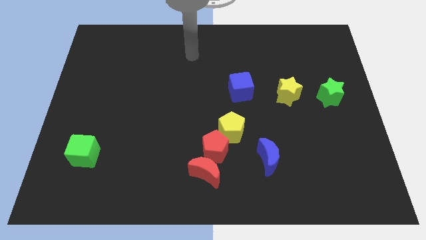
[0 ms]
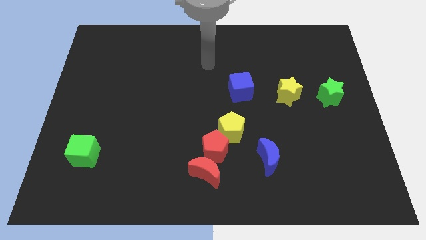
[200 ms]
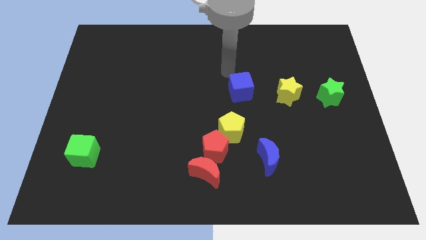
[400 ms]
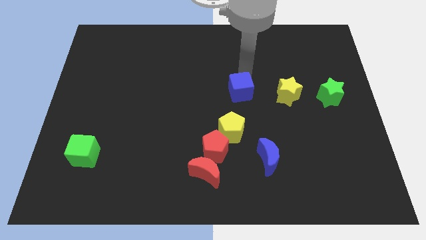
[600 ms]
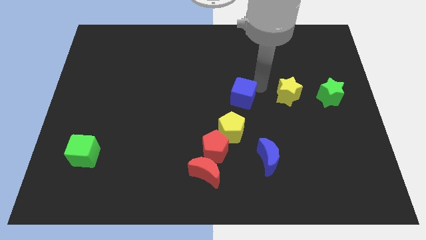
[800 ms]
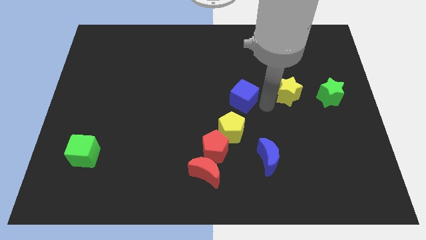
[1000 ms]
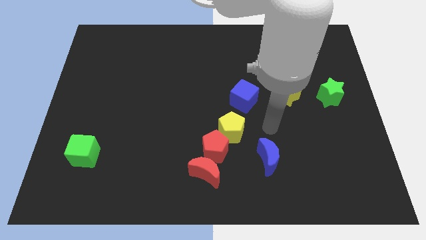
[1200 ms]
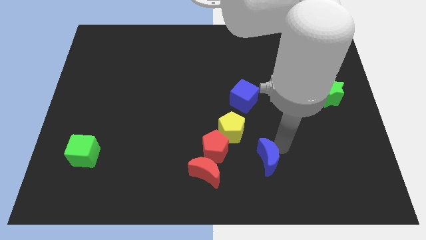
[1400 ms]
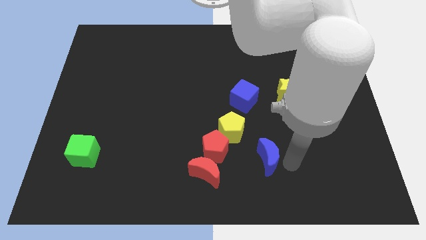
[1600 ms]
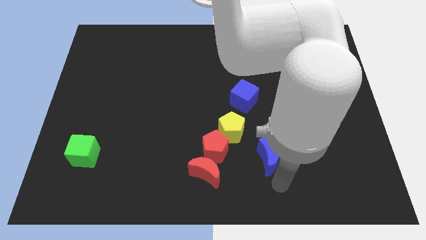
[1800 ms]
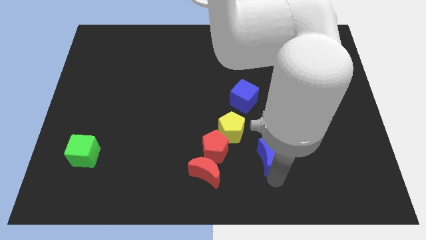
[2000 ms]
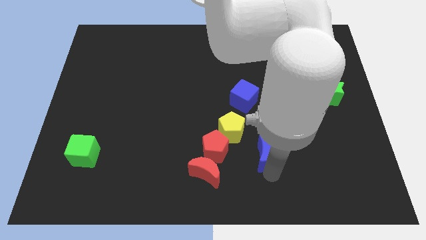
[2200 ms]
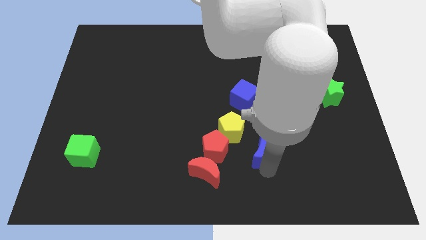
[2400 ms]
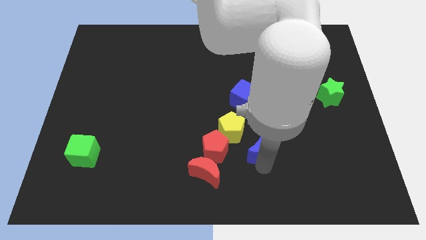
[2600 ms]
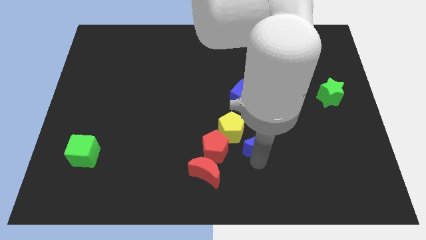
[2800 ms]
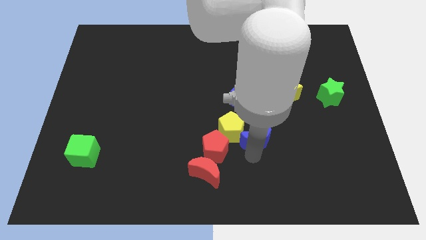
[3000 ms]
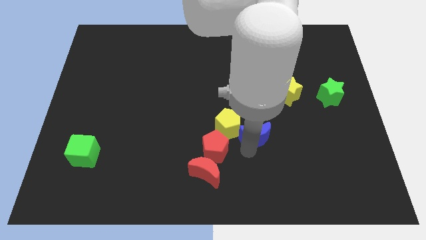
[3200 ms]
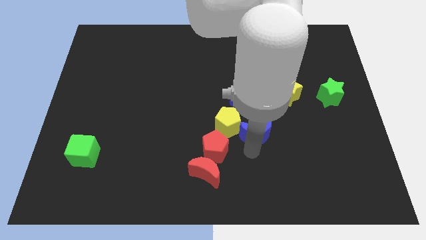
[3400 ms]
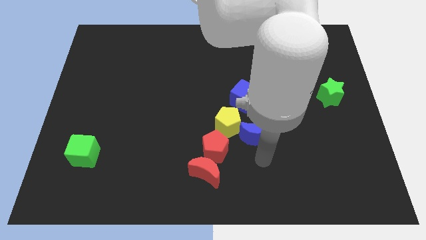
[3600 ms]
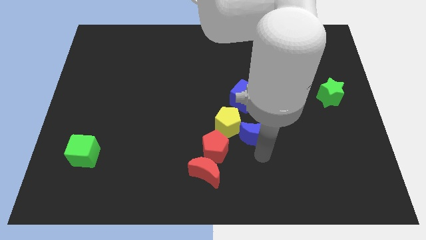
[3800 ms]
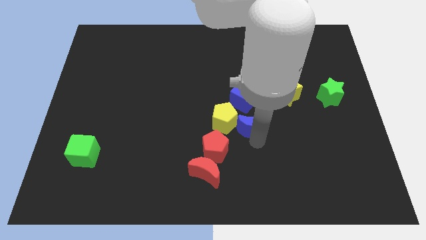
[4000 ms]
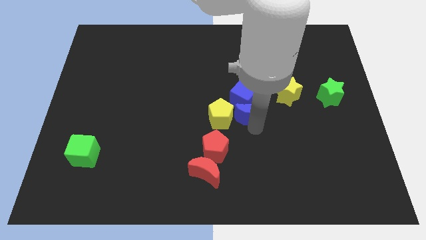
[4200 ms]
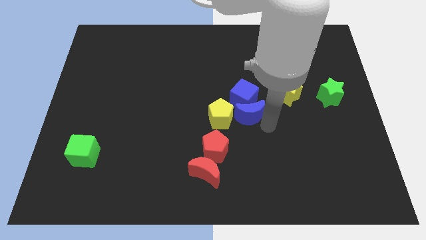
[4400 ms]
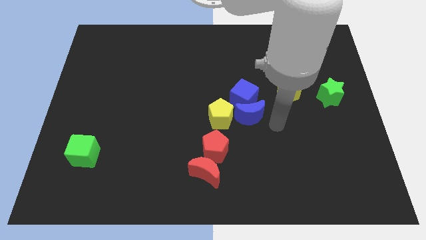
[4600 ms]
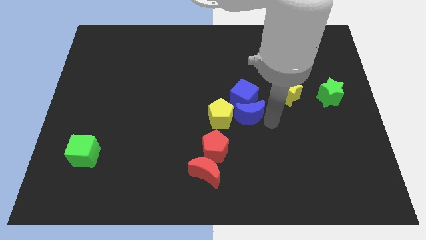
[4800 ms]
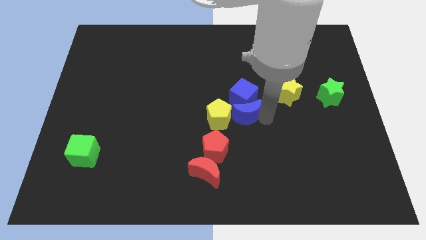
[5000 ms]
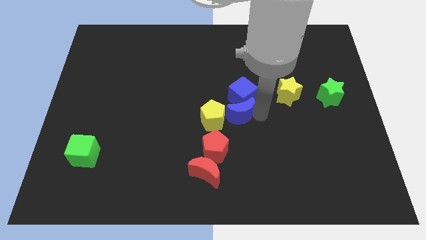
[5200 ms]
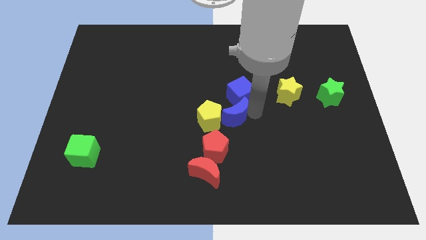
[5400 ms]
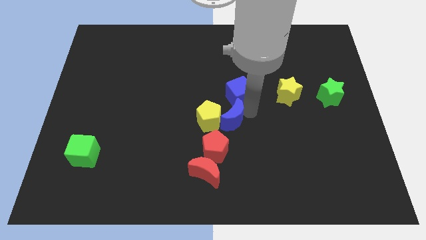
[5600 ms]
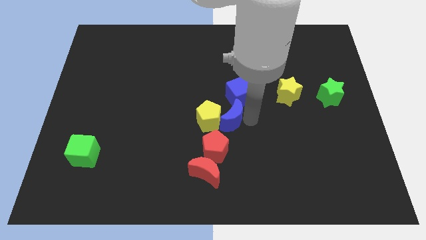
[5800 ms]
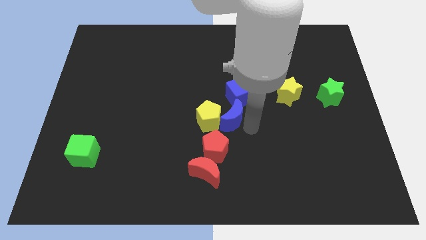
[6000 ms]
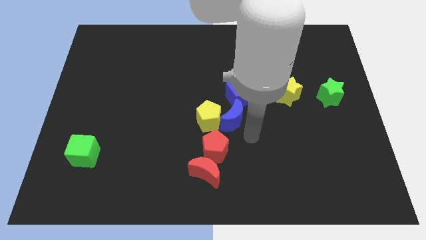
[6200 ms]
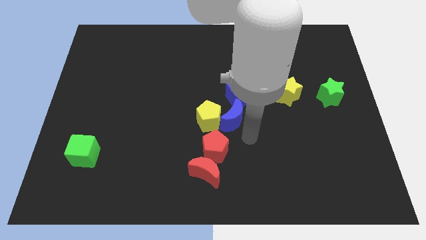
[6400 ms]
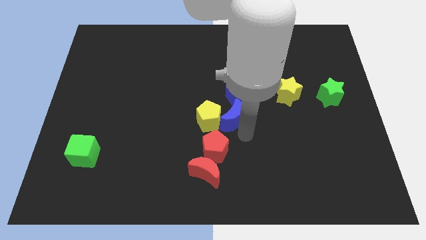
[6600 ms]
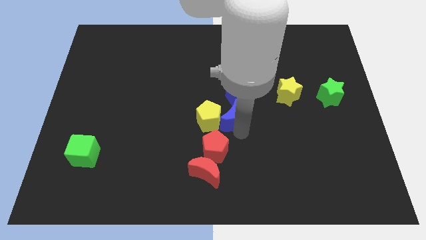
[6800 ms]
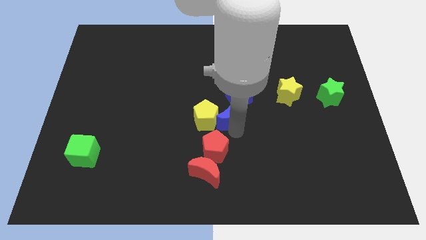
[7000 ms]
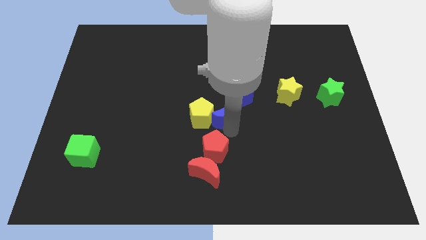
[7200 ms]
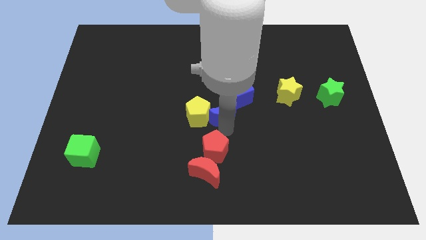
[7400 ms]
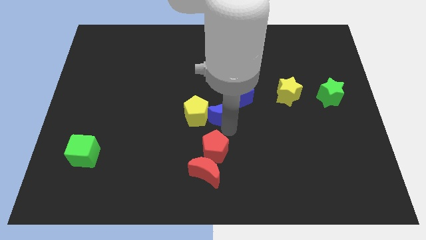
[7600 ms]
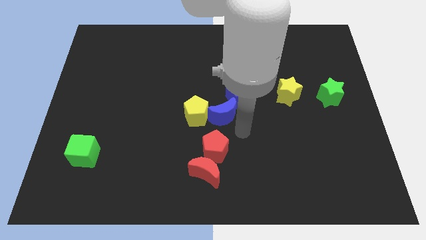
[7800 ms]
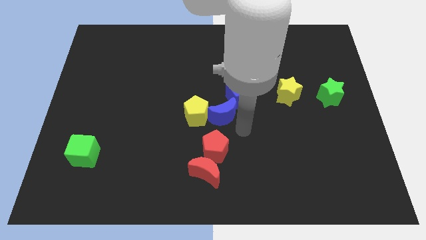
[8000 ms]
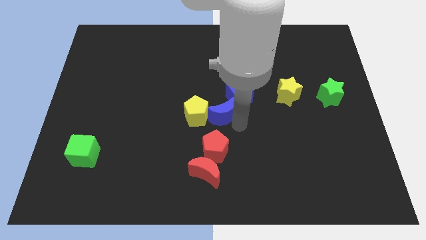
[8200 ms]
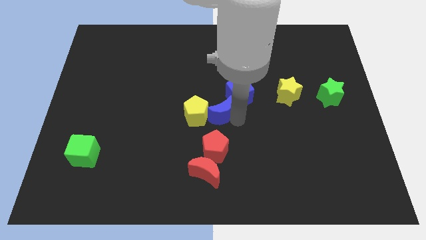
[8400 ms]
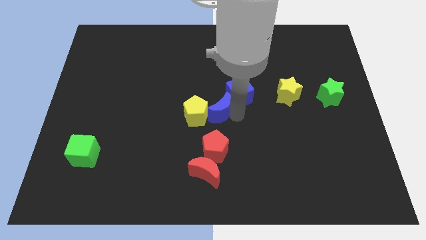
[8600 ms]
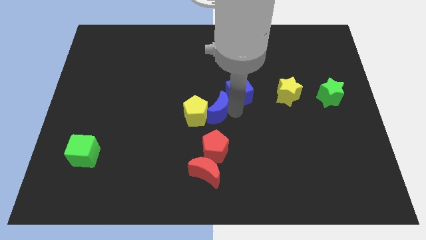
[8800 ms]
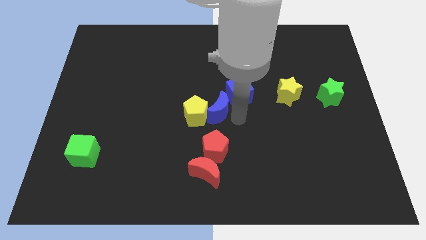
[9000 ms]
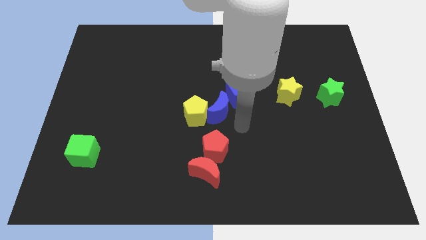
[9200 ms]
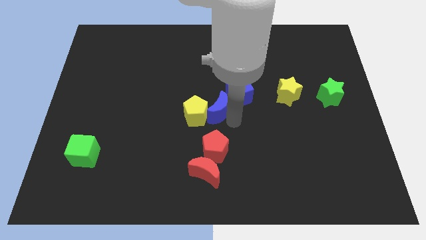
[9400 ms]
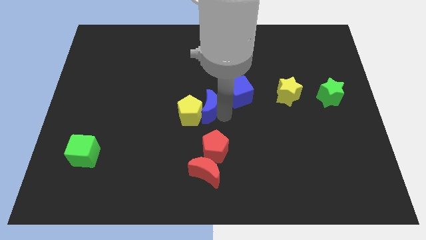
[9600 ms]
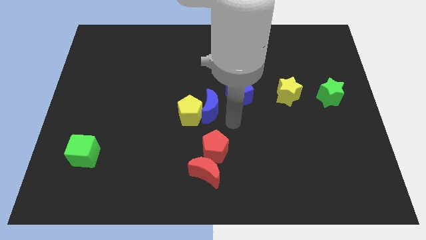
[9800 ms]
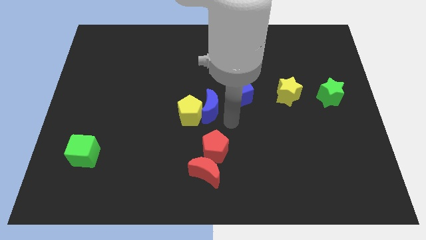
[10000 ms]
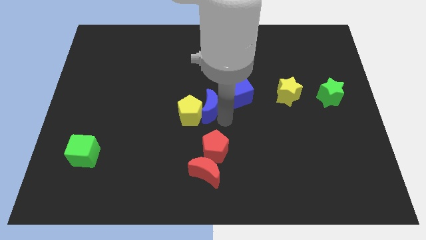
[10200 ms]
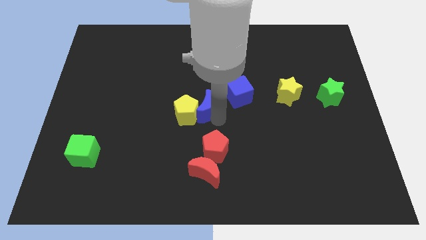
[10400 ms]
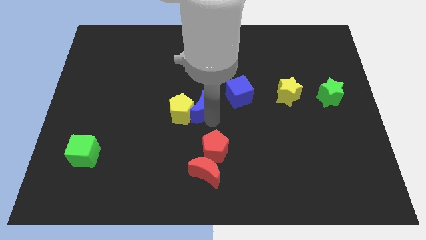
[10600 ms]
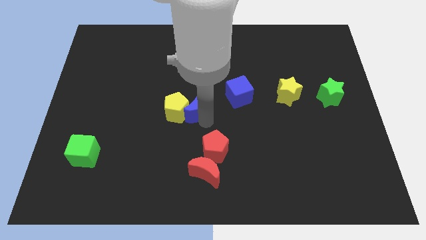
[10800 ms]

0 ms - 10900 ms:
slide the blue moon up and then to the left

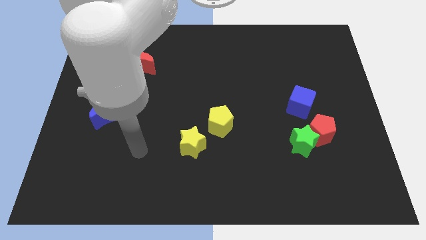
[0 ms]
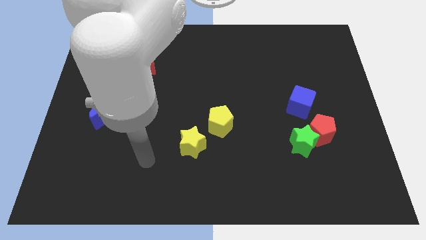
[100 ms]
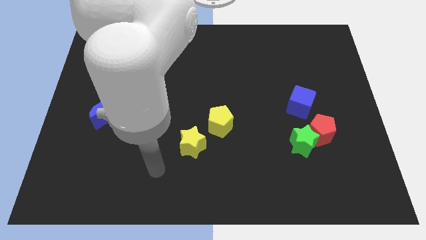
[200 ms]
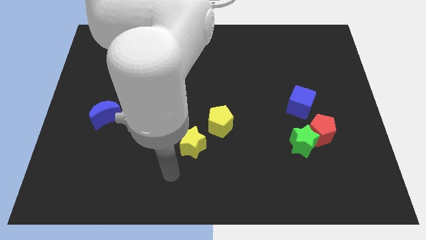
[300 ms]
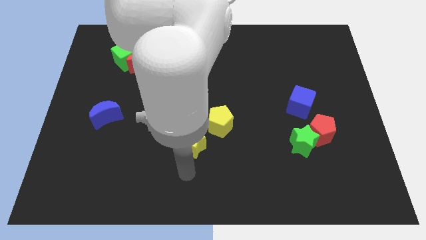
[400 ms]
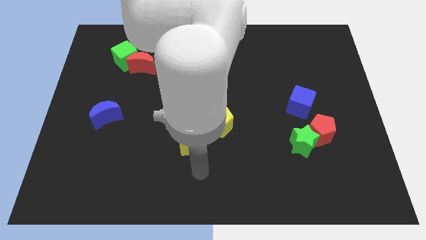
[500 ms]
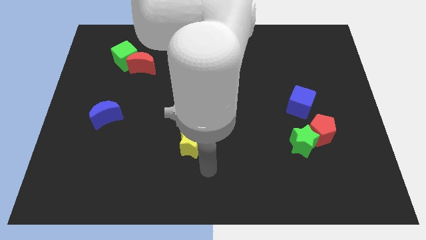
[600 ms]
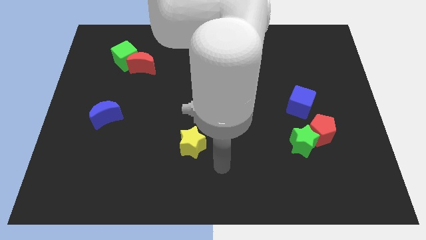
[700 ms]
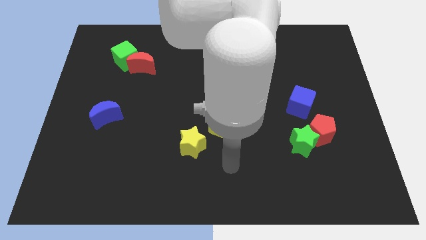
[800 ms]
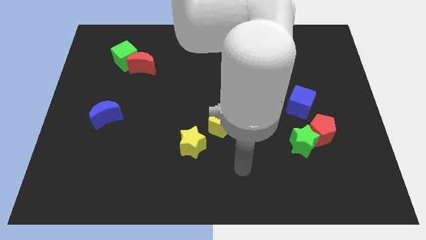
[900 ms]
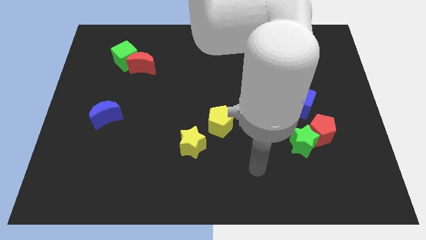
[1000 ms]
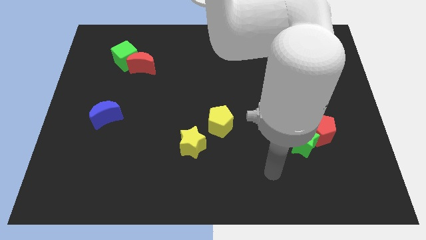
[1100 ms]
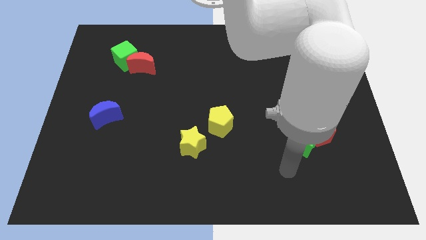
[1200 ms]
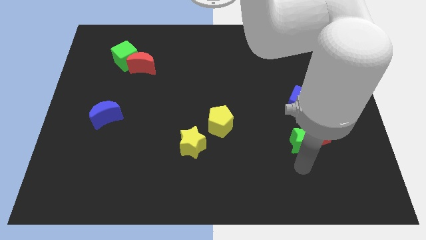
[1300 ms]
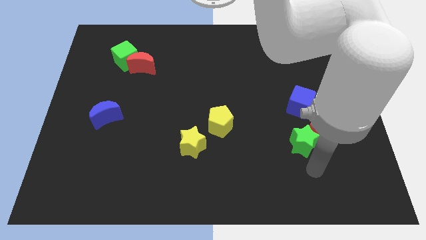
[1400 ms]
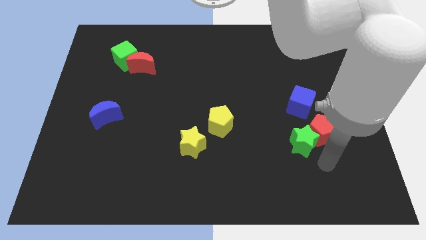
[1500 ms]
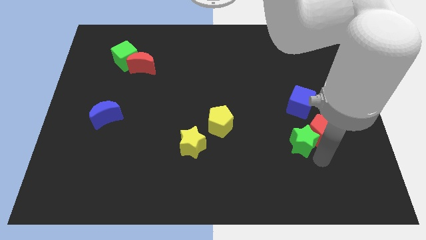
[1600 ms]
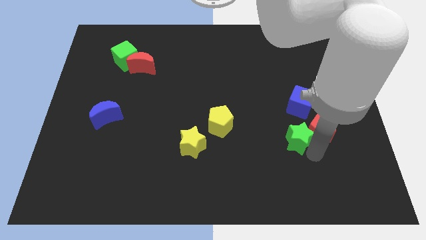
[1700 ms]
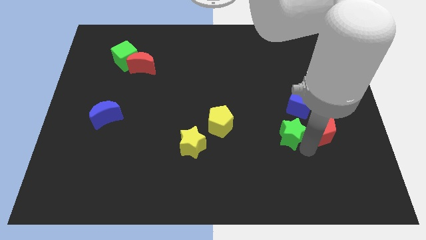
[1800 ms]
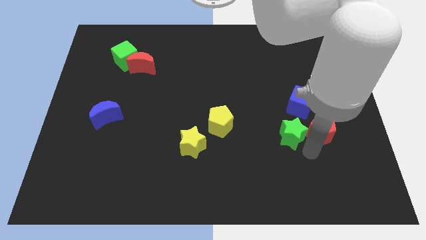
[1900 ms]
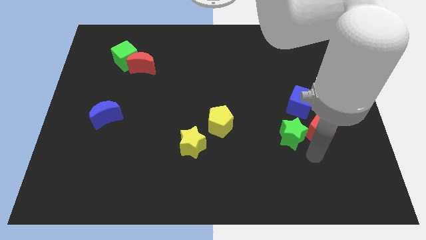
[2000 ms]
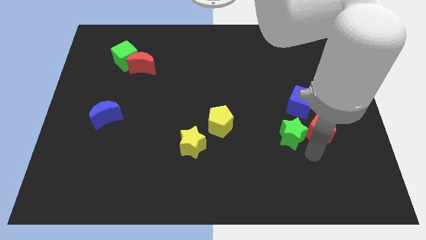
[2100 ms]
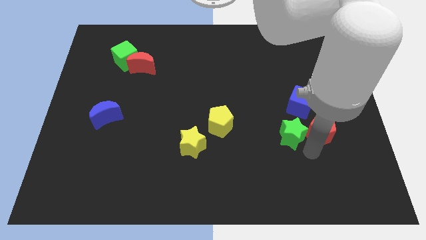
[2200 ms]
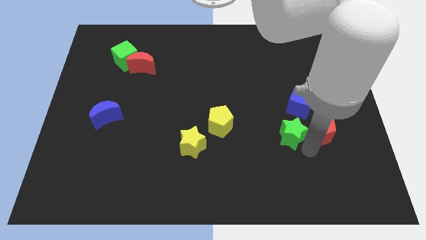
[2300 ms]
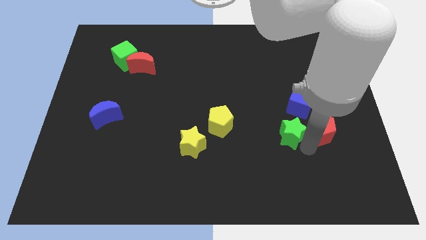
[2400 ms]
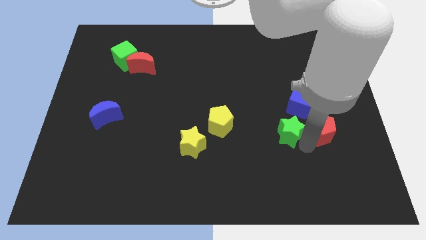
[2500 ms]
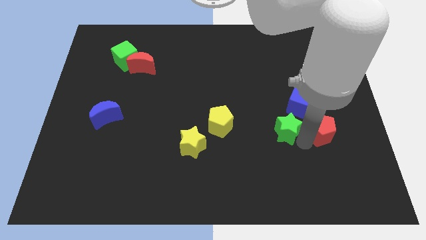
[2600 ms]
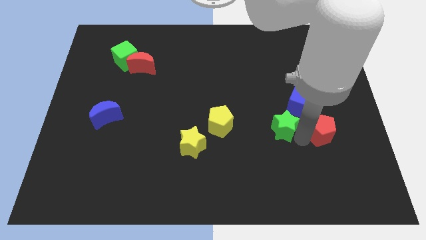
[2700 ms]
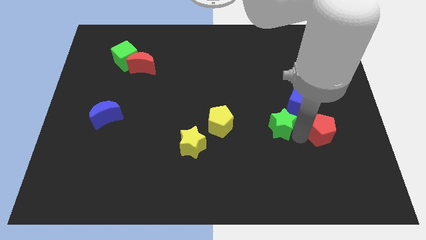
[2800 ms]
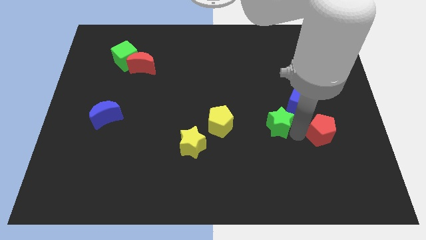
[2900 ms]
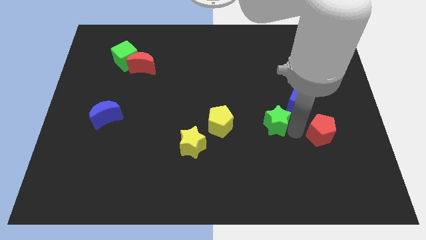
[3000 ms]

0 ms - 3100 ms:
slightly move the green star up and then left
